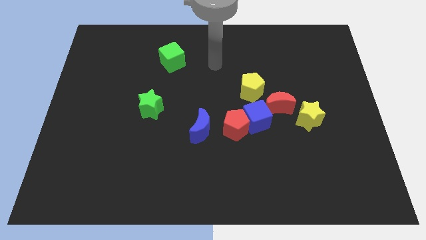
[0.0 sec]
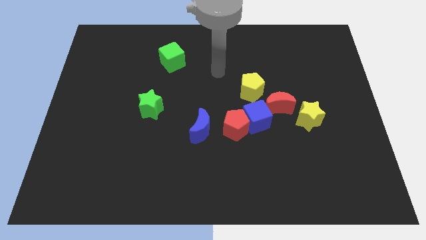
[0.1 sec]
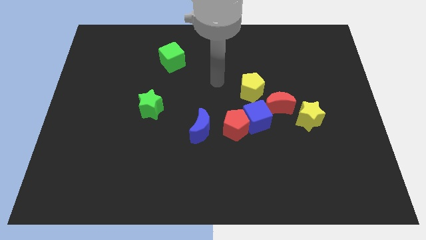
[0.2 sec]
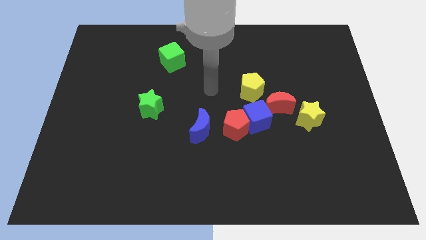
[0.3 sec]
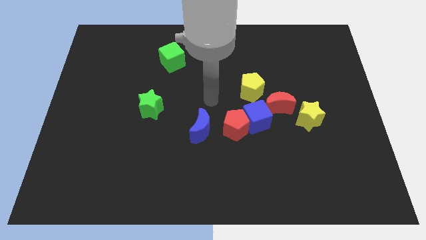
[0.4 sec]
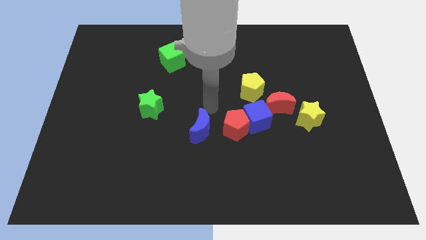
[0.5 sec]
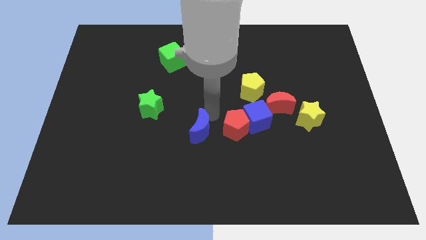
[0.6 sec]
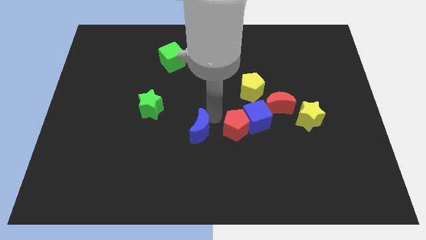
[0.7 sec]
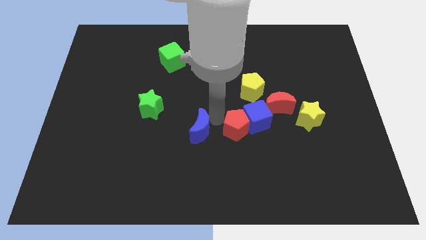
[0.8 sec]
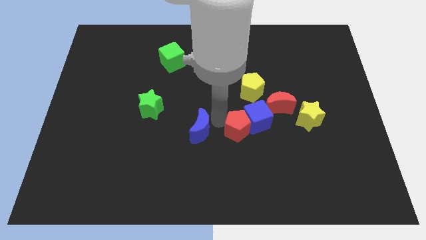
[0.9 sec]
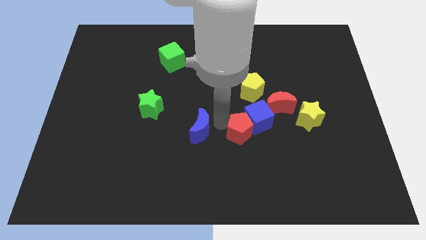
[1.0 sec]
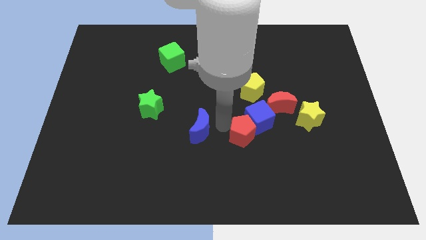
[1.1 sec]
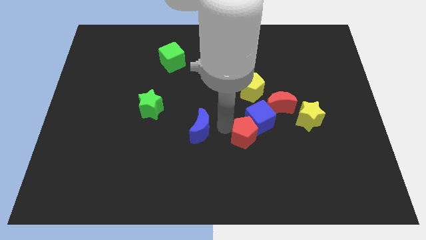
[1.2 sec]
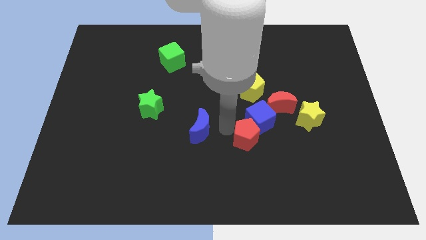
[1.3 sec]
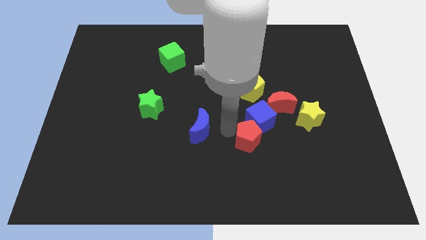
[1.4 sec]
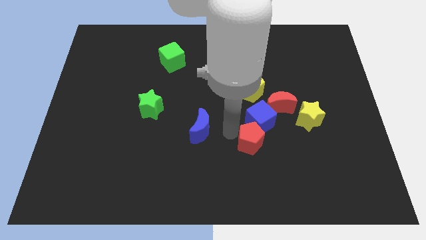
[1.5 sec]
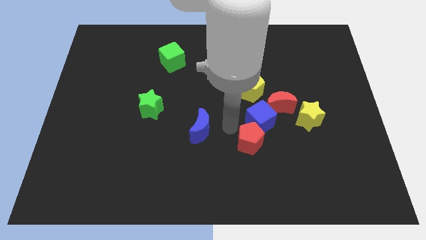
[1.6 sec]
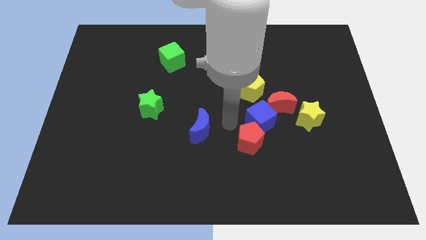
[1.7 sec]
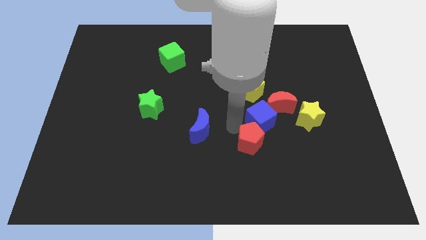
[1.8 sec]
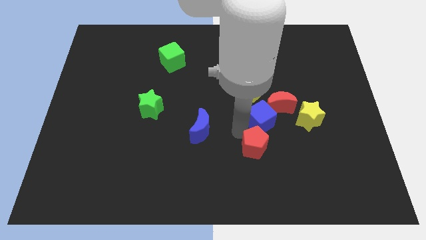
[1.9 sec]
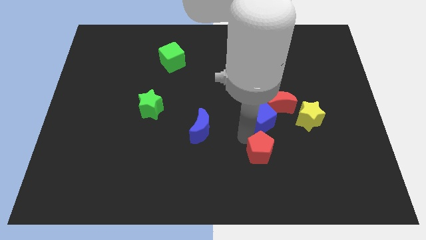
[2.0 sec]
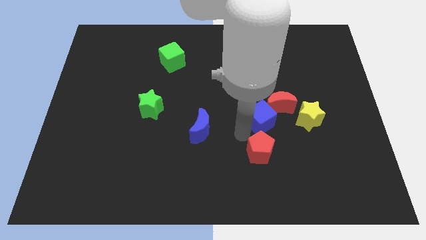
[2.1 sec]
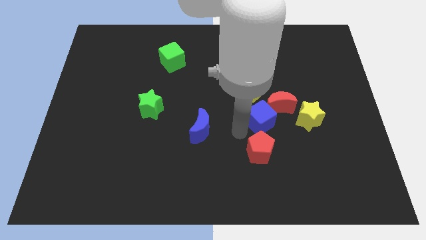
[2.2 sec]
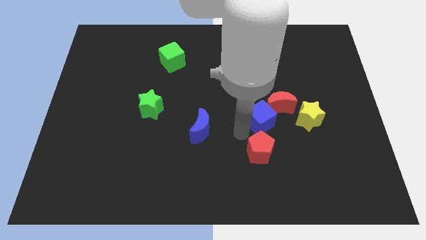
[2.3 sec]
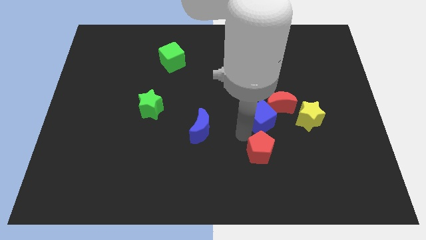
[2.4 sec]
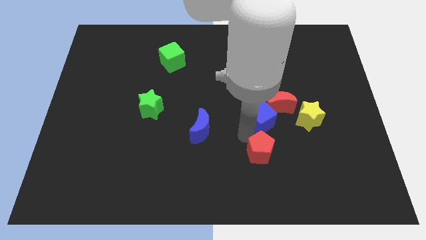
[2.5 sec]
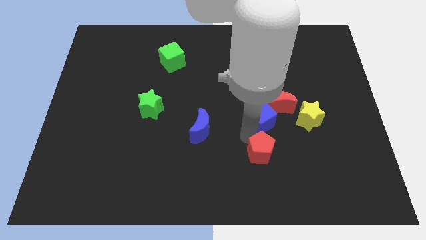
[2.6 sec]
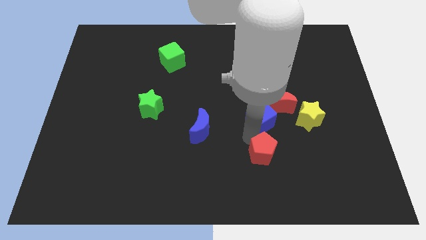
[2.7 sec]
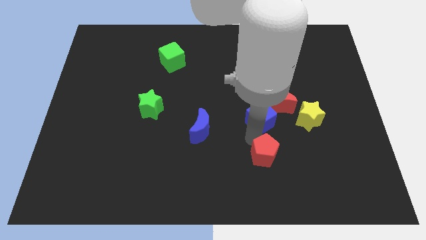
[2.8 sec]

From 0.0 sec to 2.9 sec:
move the red pentagon away from the blue cube and blue moon

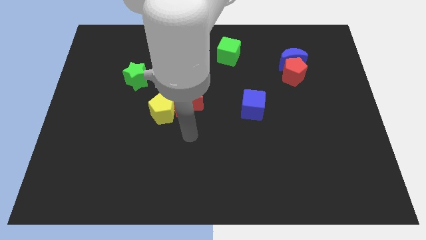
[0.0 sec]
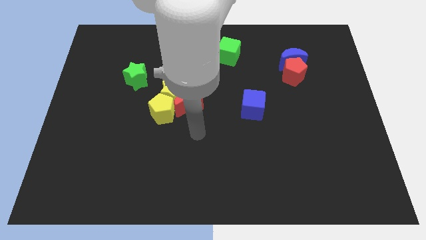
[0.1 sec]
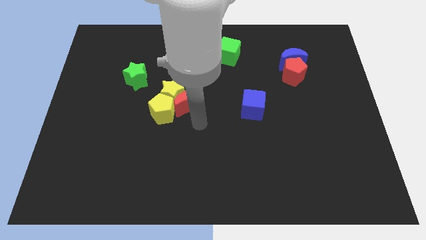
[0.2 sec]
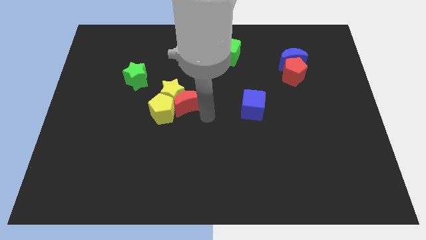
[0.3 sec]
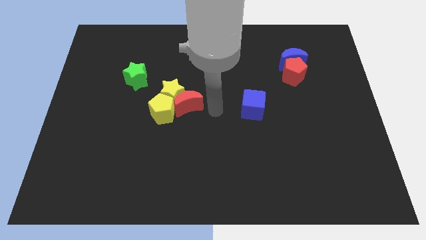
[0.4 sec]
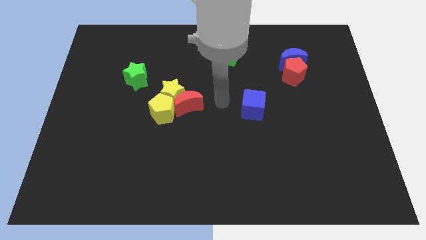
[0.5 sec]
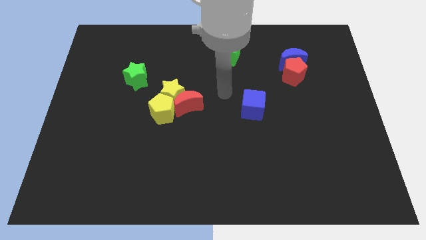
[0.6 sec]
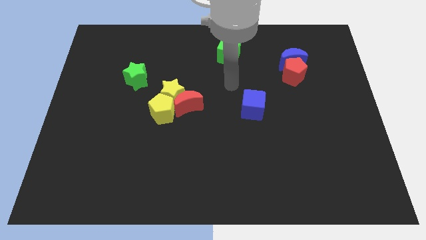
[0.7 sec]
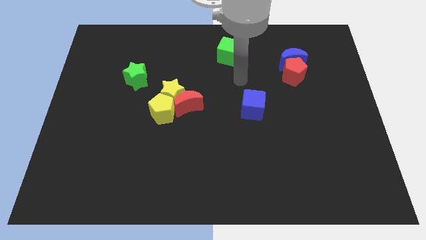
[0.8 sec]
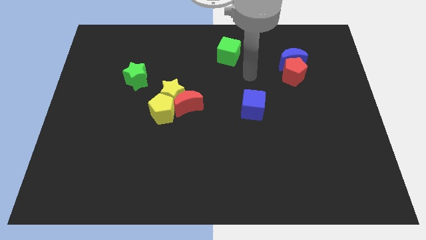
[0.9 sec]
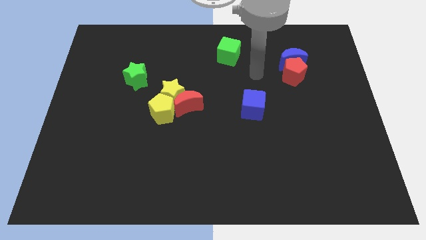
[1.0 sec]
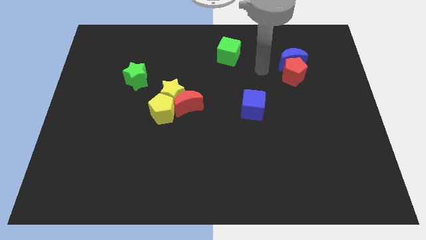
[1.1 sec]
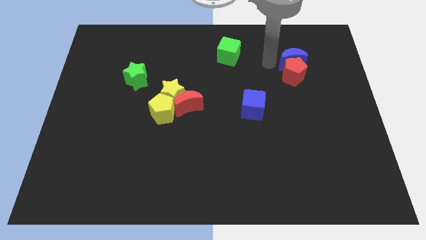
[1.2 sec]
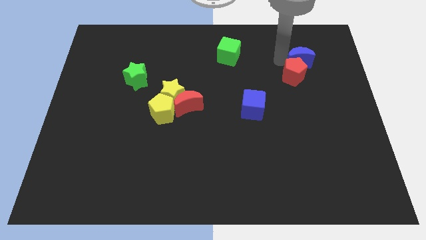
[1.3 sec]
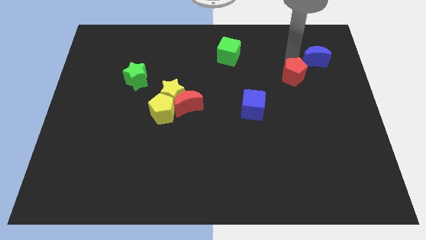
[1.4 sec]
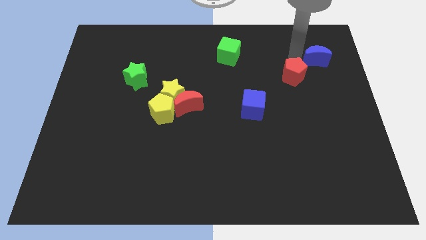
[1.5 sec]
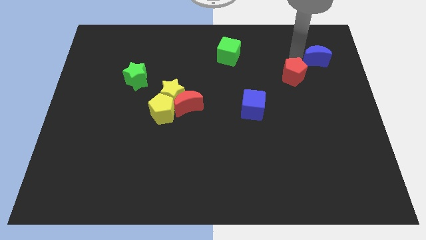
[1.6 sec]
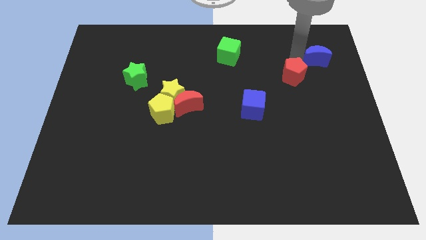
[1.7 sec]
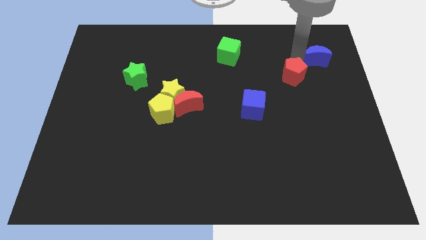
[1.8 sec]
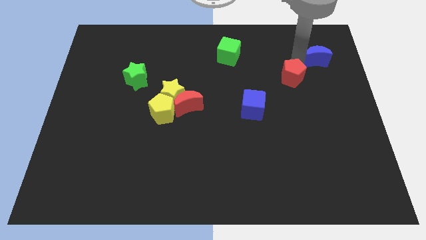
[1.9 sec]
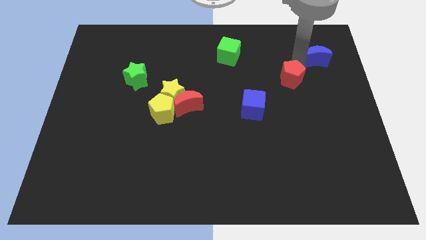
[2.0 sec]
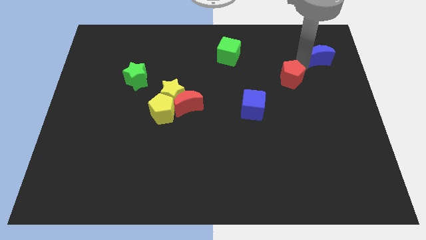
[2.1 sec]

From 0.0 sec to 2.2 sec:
separate the red pentagon from the blue moon

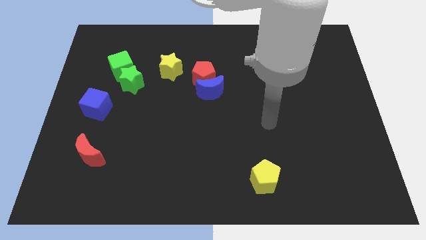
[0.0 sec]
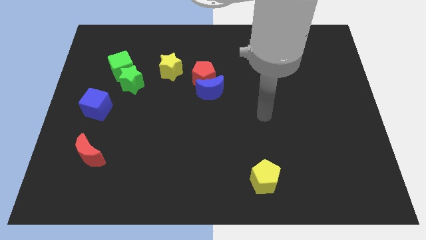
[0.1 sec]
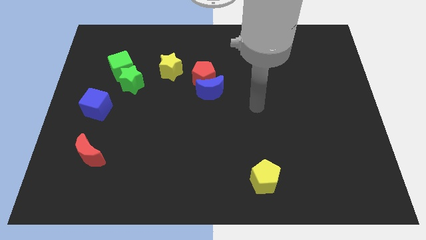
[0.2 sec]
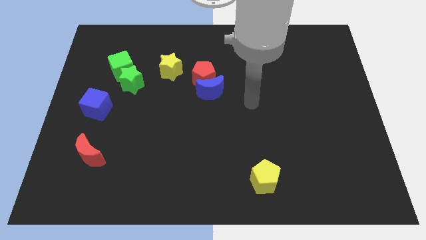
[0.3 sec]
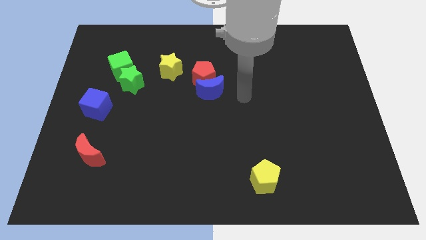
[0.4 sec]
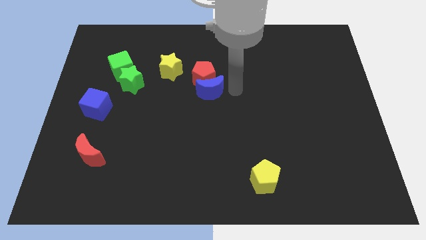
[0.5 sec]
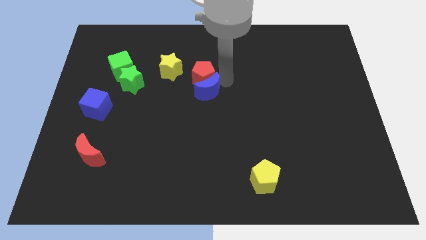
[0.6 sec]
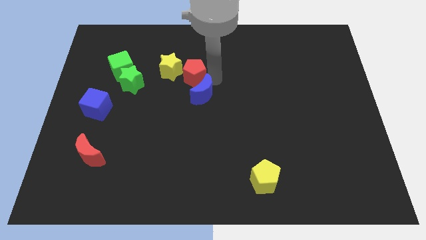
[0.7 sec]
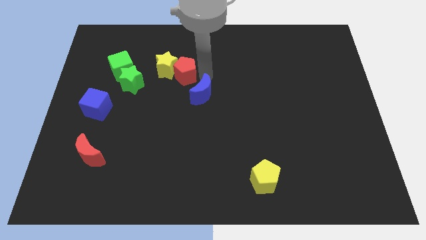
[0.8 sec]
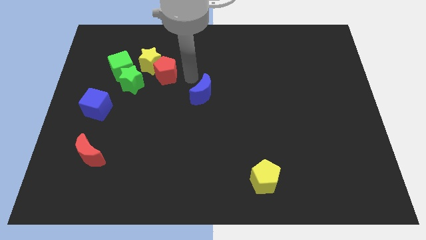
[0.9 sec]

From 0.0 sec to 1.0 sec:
separate the blue moon from the red pentagon

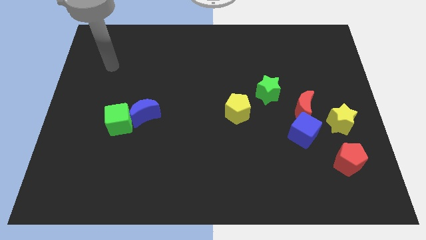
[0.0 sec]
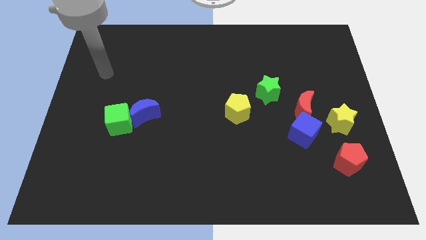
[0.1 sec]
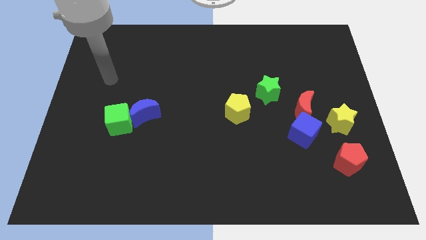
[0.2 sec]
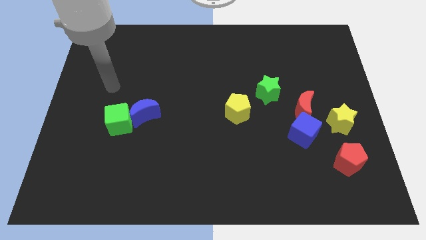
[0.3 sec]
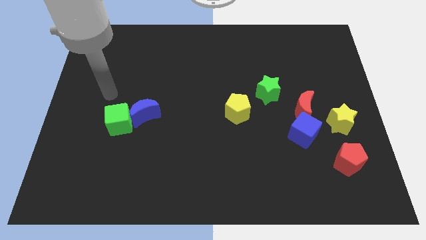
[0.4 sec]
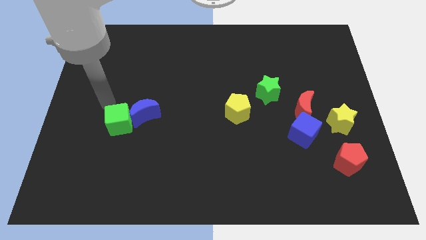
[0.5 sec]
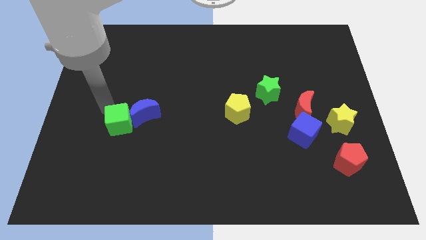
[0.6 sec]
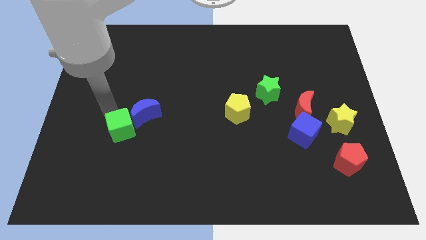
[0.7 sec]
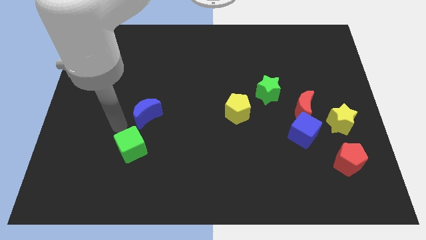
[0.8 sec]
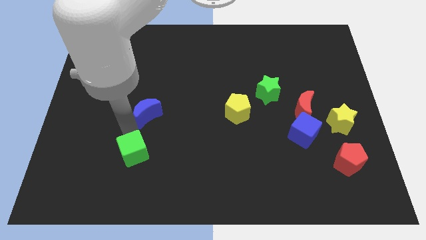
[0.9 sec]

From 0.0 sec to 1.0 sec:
separate the blue moon from the green cube

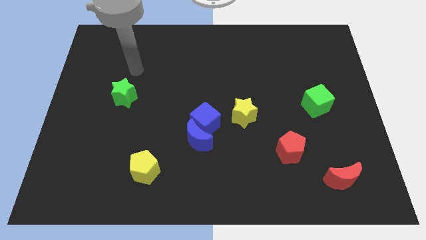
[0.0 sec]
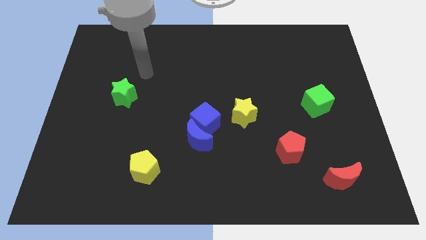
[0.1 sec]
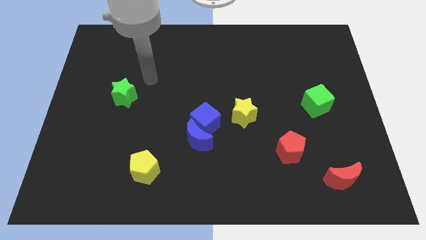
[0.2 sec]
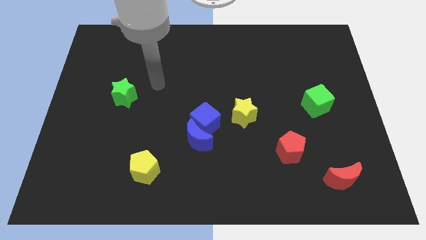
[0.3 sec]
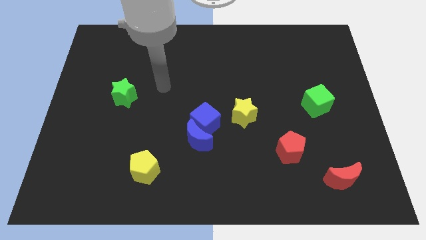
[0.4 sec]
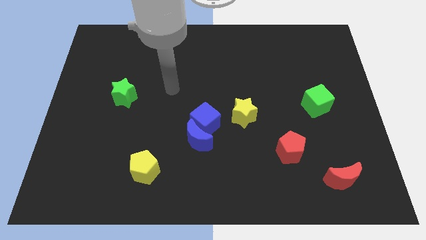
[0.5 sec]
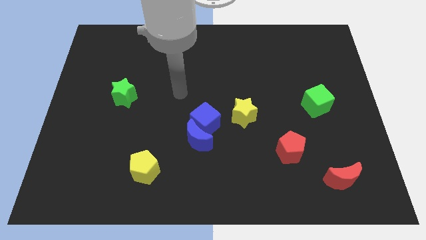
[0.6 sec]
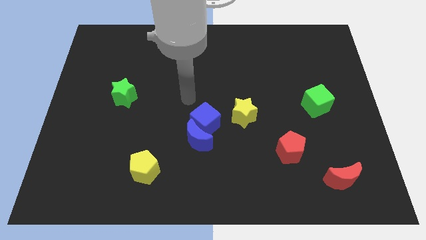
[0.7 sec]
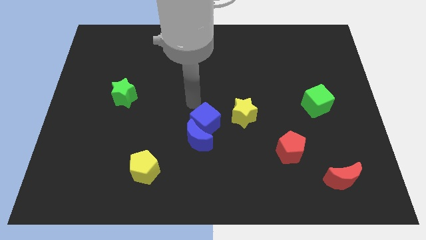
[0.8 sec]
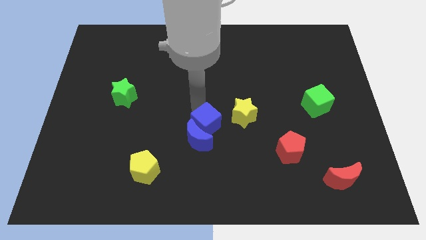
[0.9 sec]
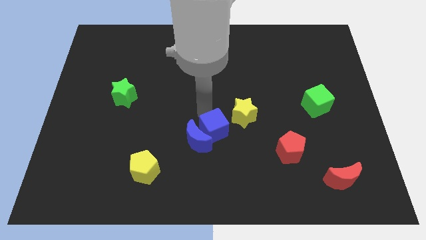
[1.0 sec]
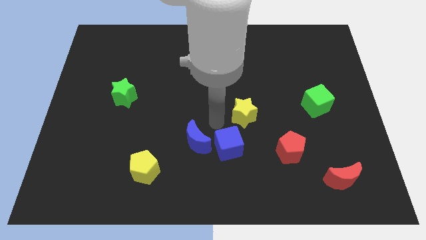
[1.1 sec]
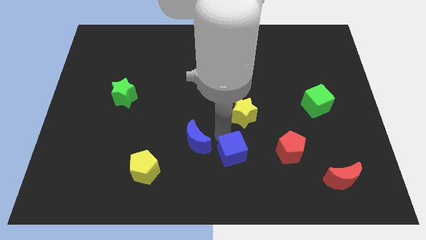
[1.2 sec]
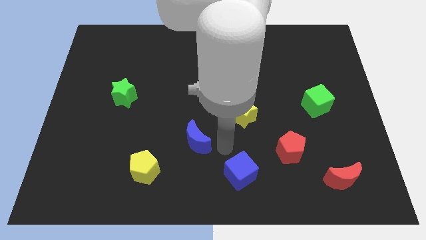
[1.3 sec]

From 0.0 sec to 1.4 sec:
pull the blue moon apart from the blue cube

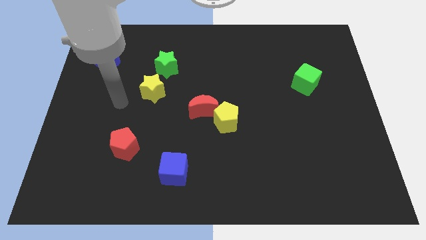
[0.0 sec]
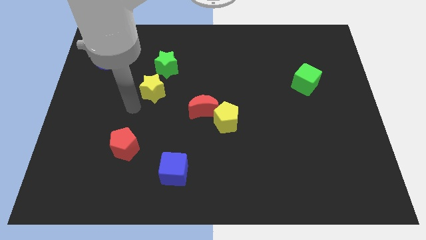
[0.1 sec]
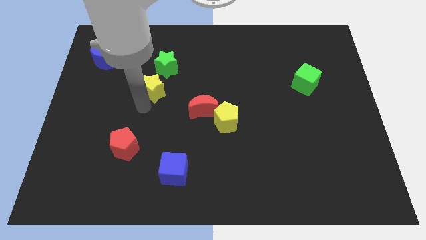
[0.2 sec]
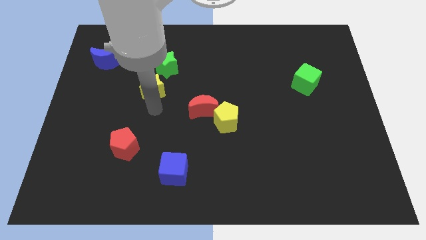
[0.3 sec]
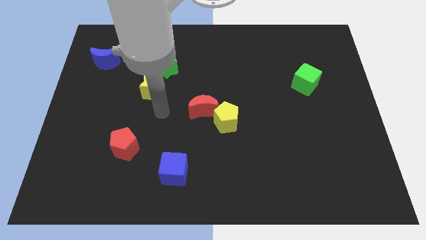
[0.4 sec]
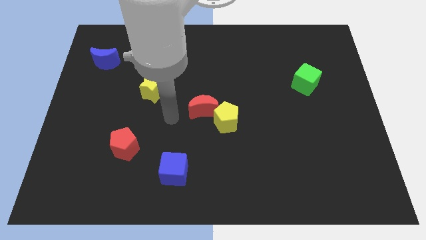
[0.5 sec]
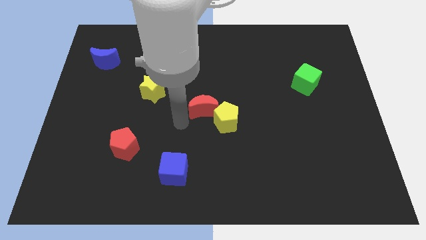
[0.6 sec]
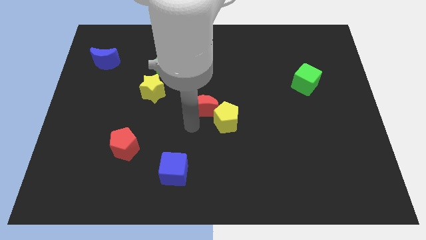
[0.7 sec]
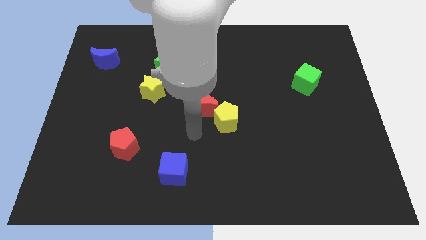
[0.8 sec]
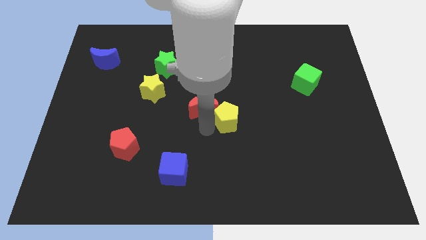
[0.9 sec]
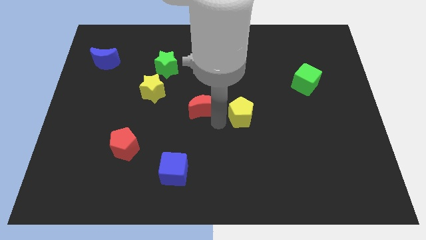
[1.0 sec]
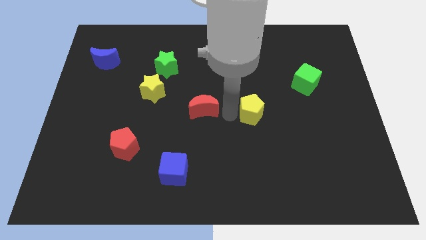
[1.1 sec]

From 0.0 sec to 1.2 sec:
pull the red moon apart from the yellow pentagon
